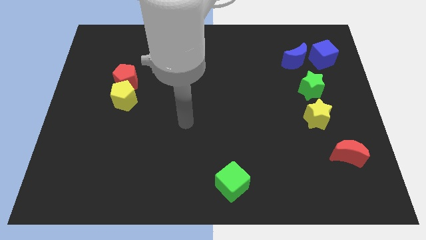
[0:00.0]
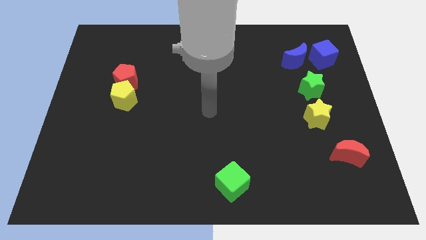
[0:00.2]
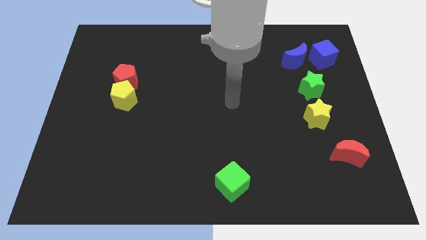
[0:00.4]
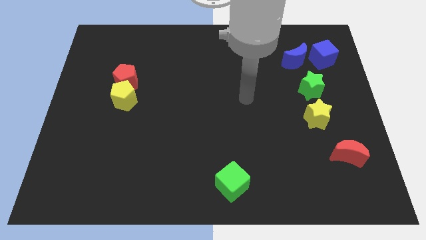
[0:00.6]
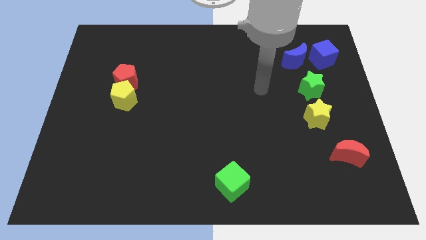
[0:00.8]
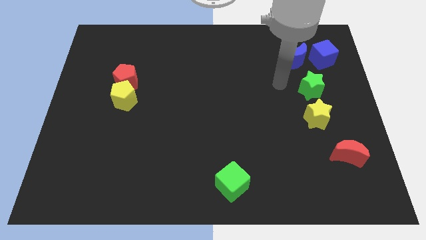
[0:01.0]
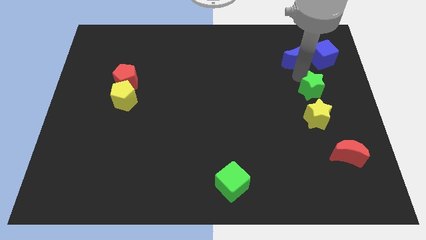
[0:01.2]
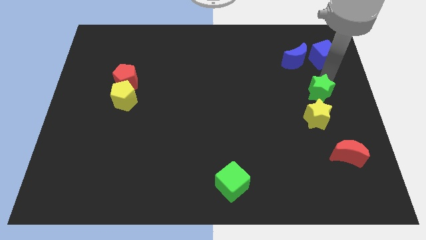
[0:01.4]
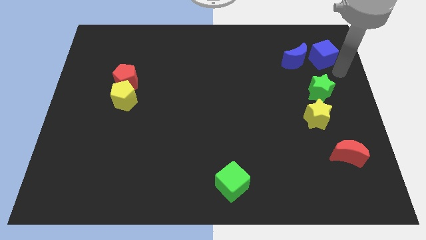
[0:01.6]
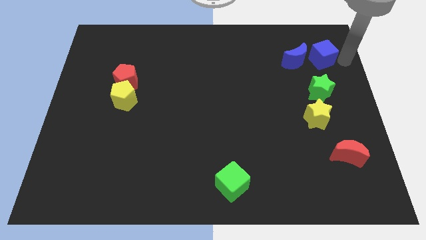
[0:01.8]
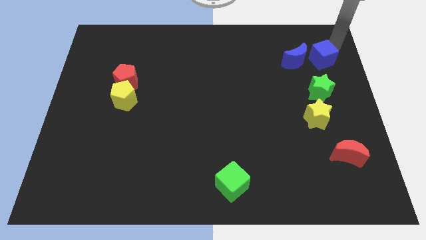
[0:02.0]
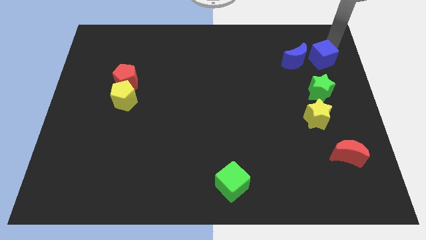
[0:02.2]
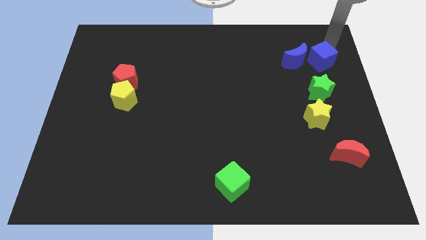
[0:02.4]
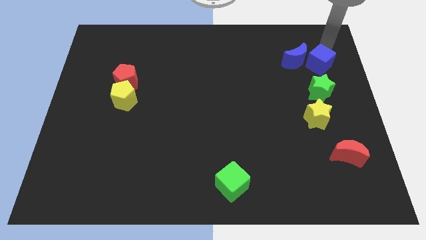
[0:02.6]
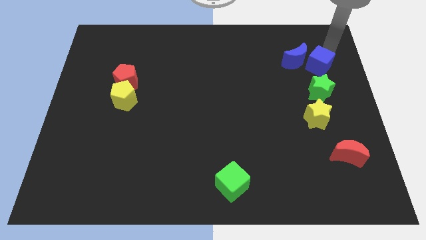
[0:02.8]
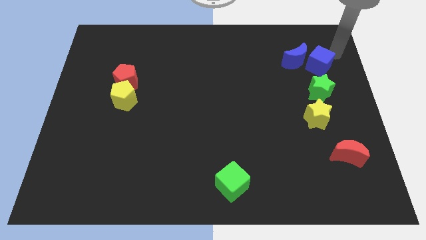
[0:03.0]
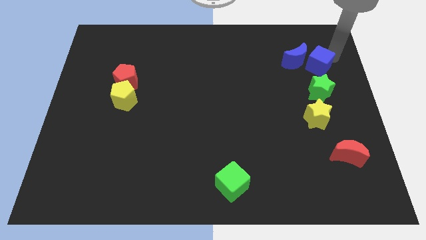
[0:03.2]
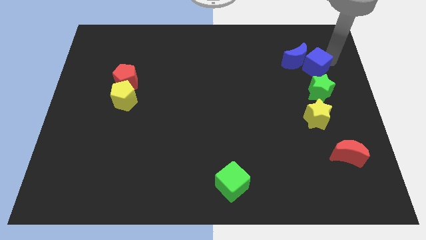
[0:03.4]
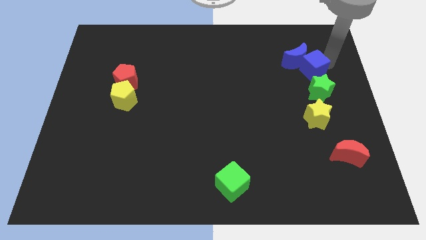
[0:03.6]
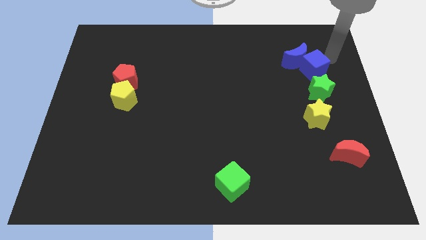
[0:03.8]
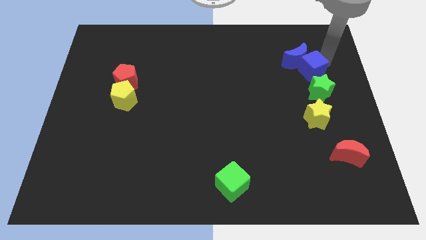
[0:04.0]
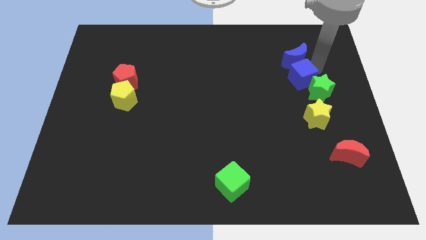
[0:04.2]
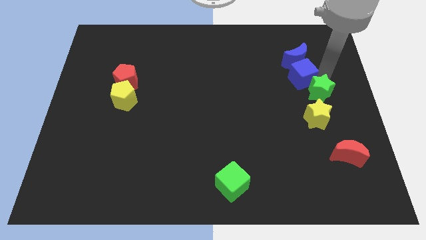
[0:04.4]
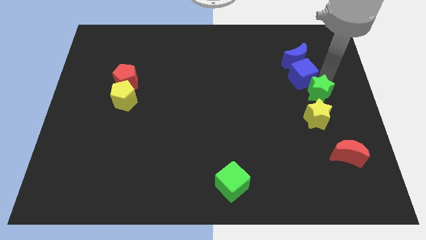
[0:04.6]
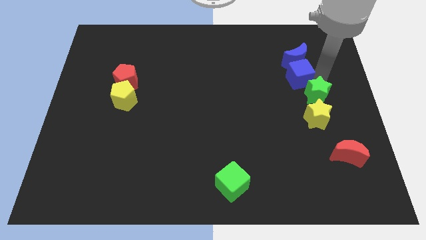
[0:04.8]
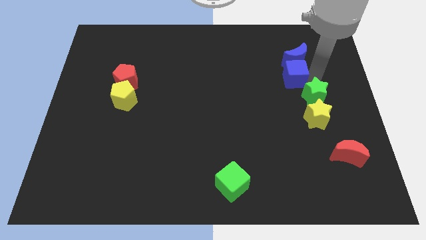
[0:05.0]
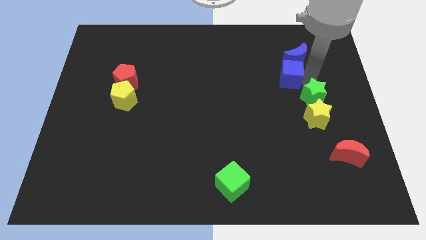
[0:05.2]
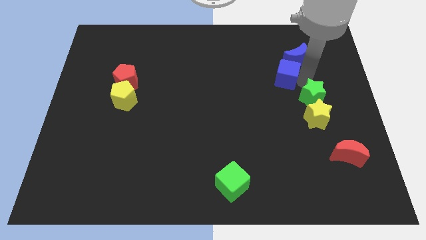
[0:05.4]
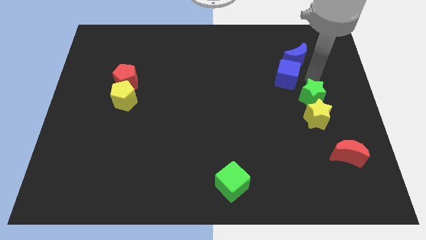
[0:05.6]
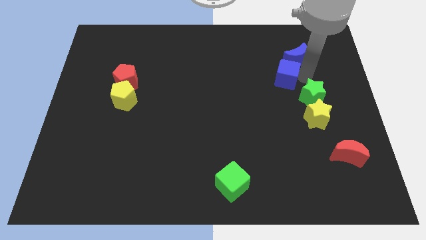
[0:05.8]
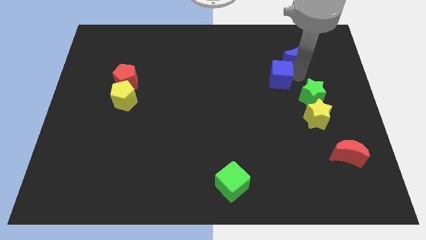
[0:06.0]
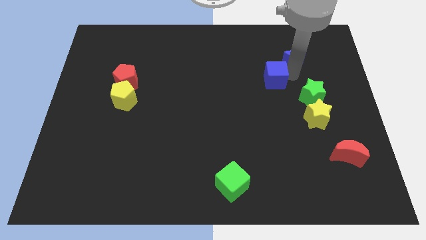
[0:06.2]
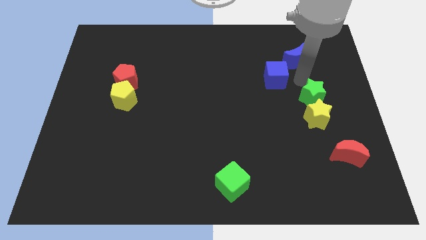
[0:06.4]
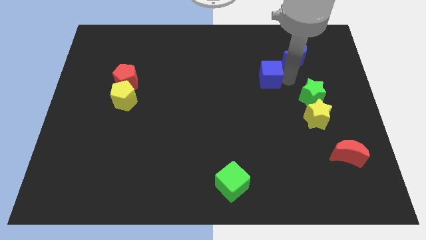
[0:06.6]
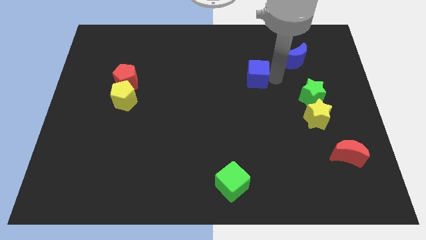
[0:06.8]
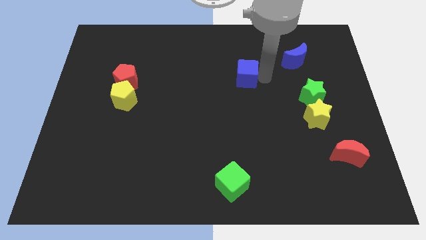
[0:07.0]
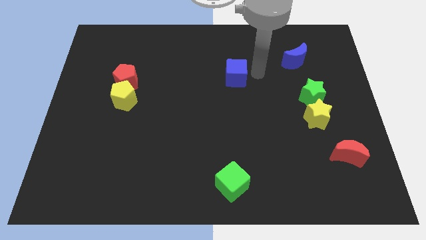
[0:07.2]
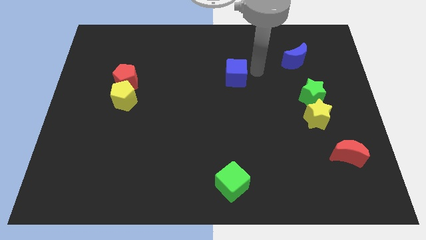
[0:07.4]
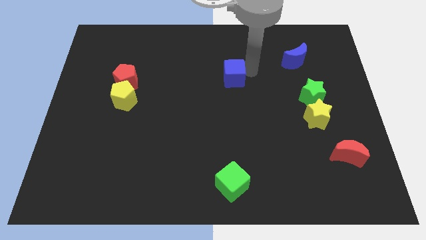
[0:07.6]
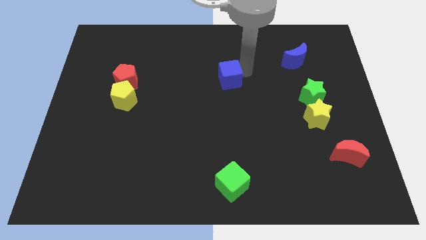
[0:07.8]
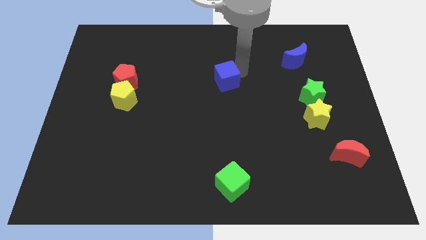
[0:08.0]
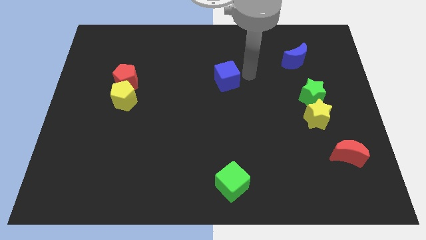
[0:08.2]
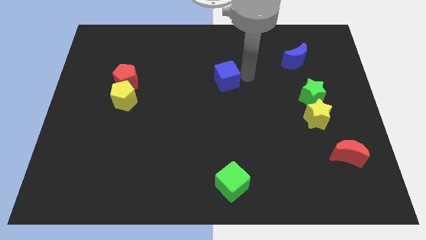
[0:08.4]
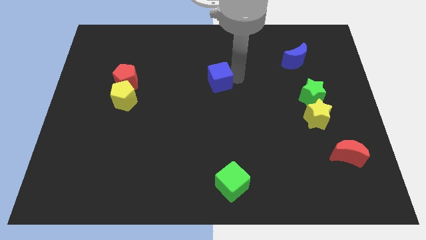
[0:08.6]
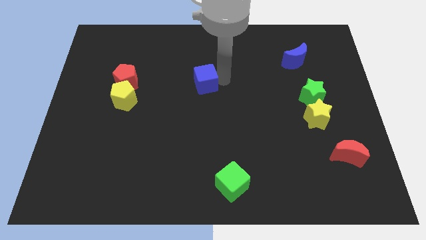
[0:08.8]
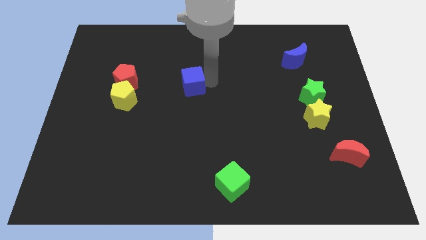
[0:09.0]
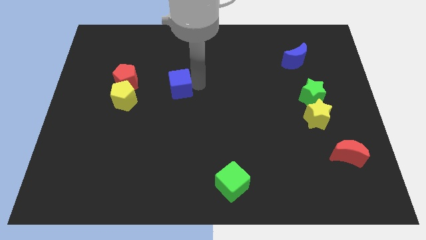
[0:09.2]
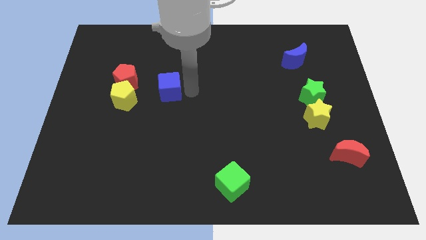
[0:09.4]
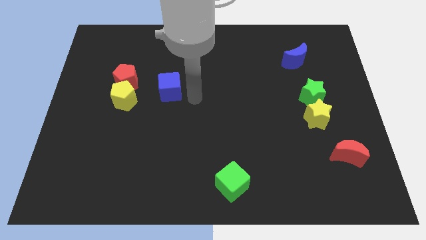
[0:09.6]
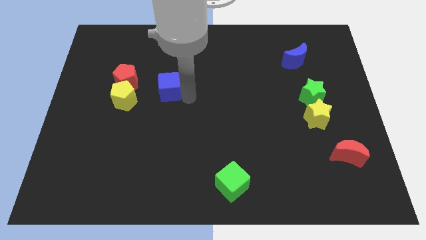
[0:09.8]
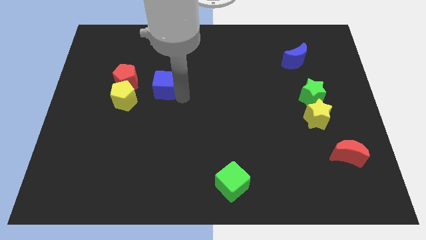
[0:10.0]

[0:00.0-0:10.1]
push the blue cube diagonally up and to the right of the yellow pentagon

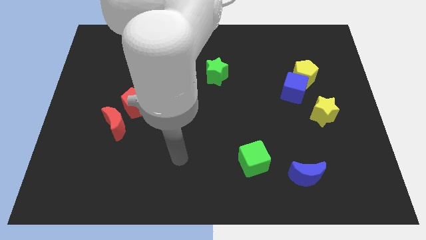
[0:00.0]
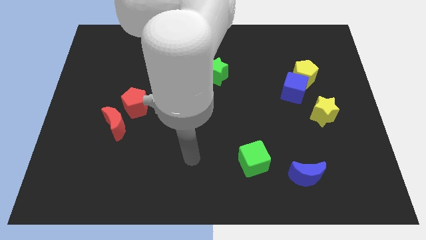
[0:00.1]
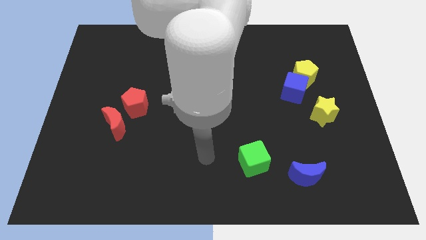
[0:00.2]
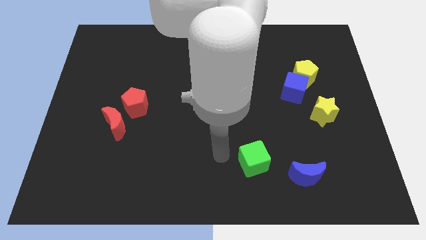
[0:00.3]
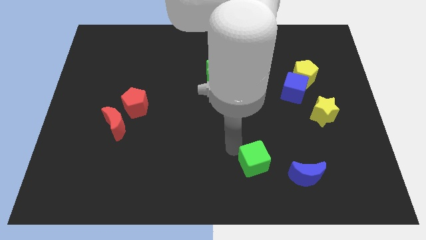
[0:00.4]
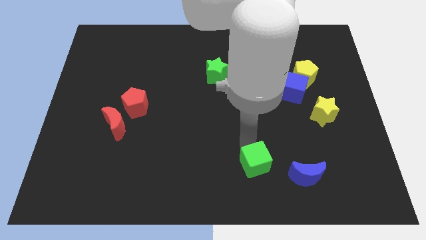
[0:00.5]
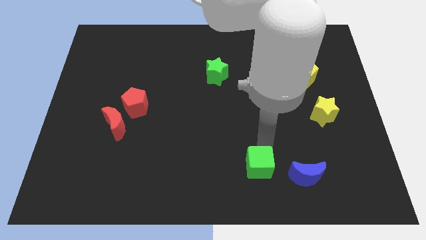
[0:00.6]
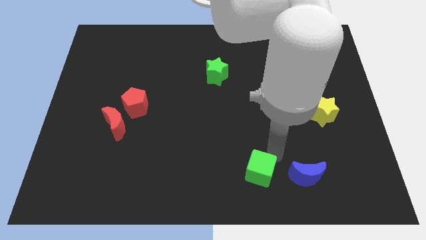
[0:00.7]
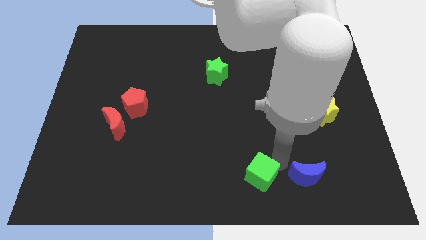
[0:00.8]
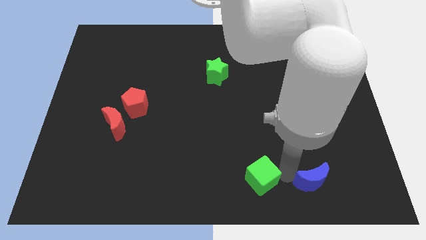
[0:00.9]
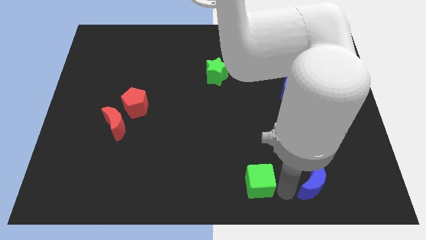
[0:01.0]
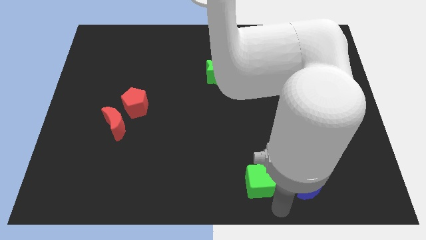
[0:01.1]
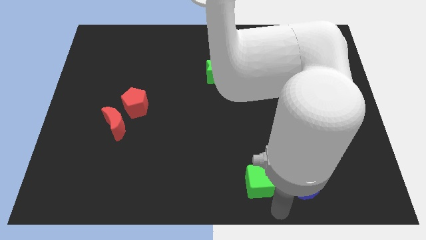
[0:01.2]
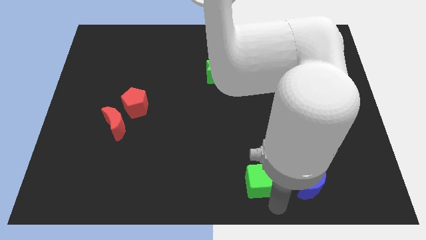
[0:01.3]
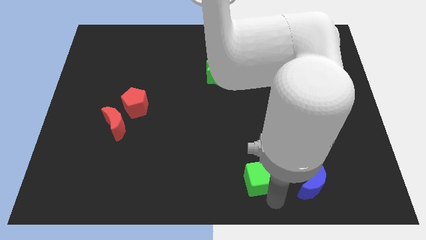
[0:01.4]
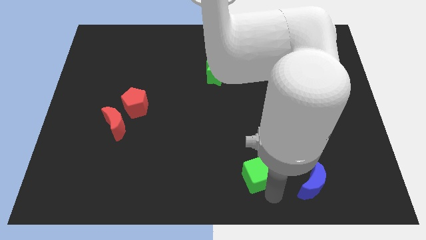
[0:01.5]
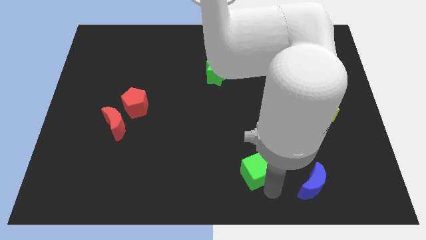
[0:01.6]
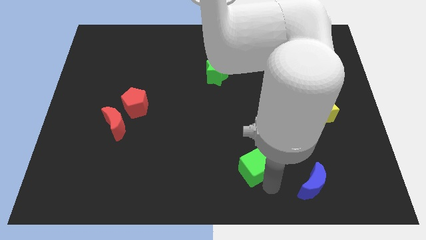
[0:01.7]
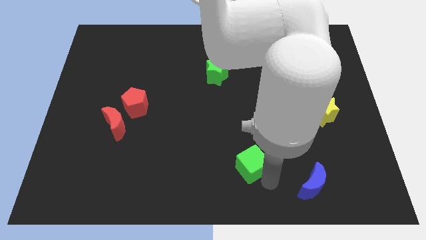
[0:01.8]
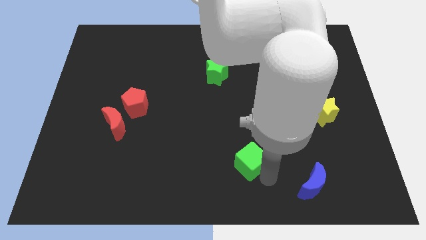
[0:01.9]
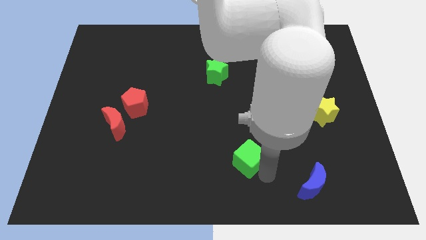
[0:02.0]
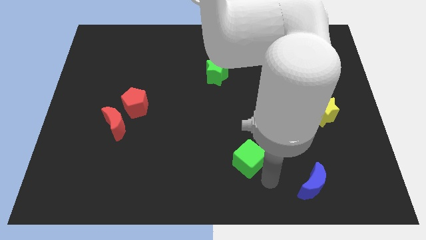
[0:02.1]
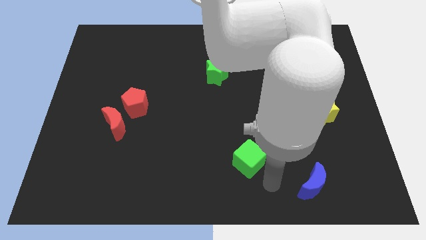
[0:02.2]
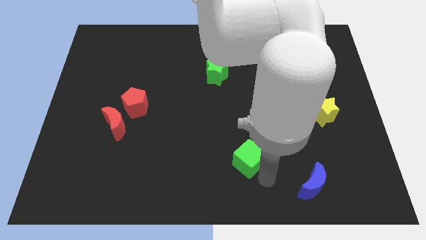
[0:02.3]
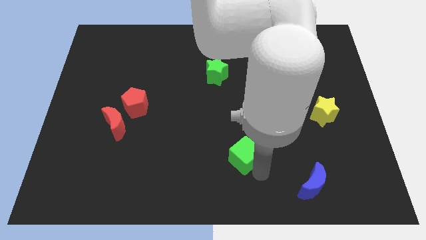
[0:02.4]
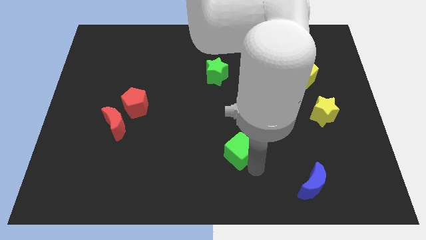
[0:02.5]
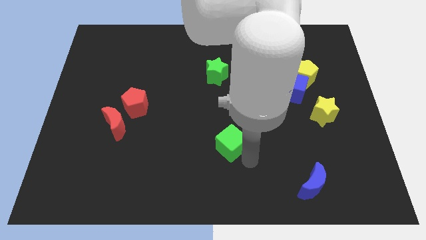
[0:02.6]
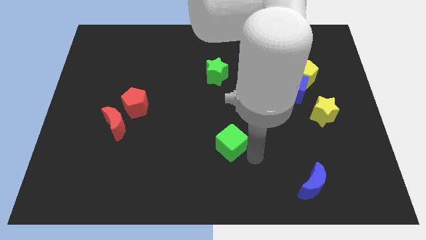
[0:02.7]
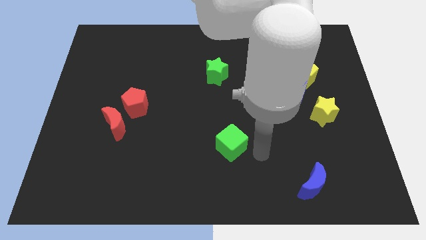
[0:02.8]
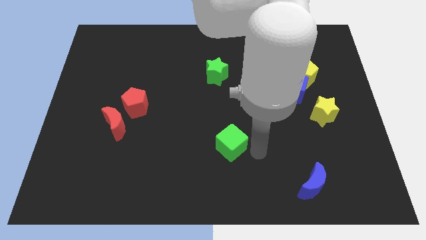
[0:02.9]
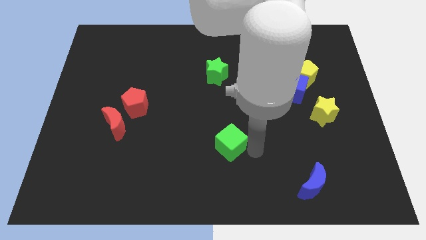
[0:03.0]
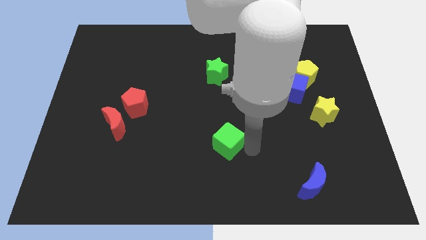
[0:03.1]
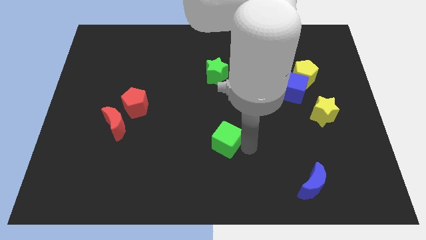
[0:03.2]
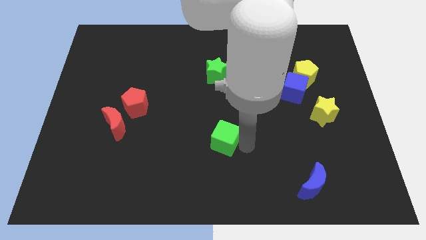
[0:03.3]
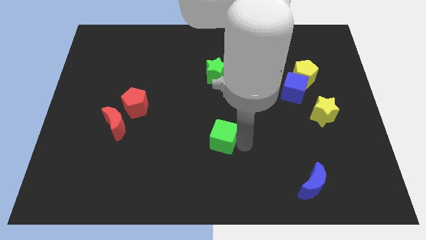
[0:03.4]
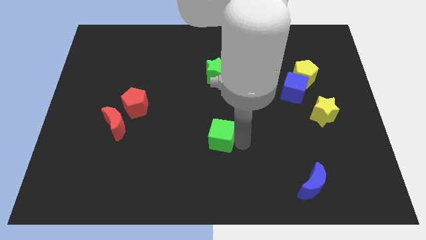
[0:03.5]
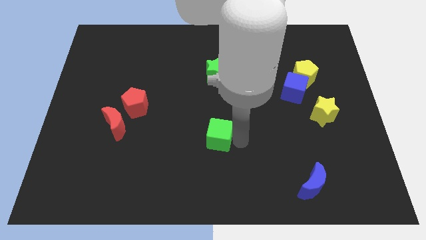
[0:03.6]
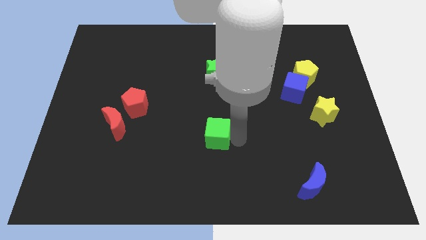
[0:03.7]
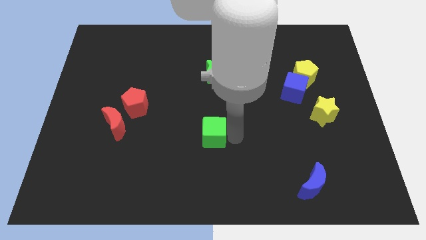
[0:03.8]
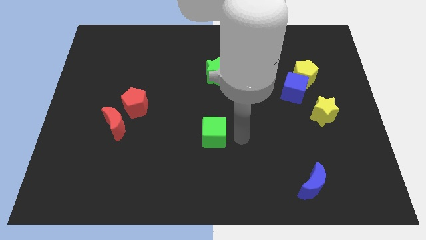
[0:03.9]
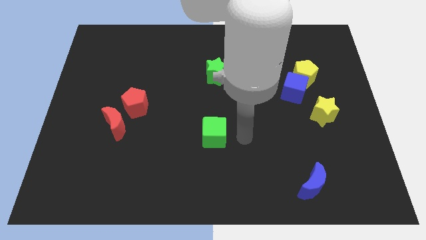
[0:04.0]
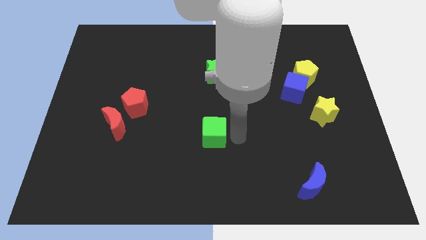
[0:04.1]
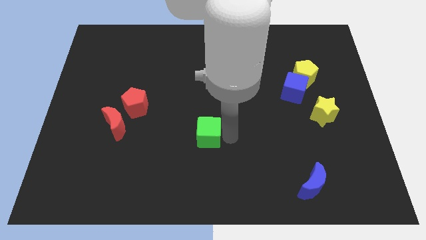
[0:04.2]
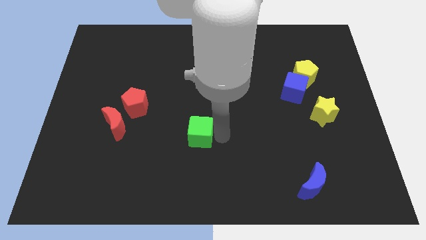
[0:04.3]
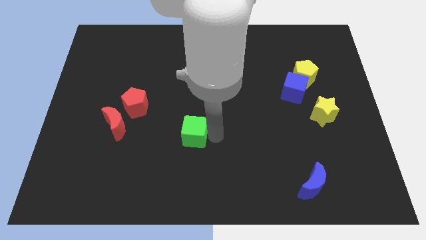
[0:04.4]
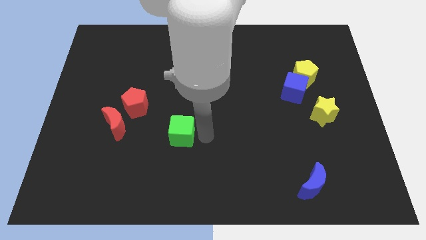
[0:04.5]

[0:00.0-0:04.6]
put the green cube to the right of the red moon
